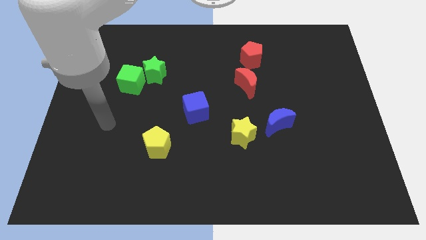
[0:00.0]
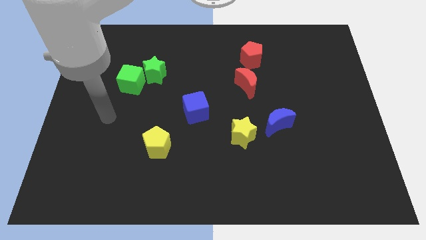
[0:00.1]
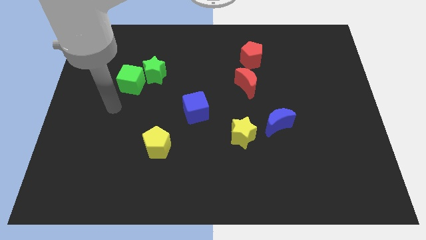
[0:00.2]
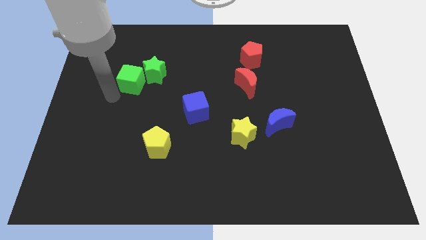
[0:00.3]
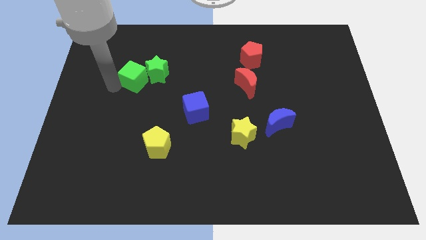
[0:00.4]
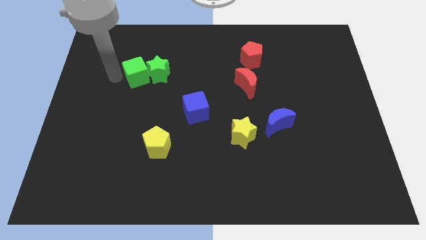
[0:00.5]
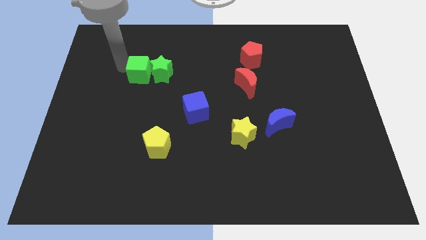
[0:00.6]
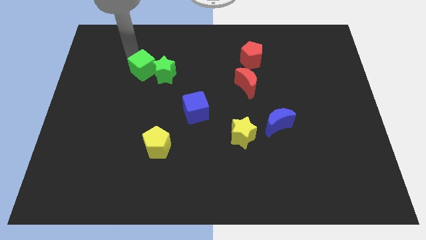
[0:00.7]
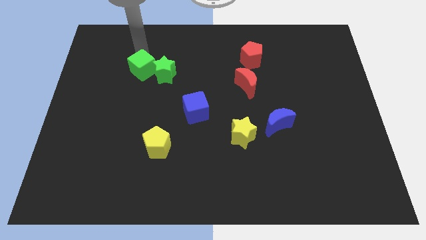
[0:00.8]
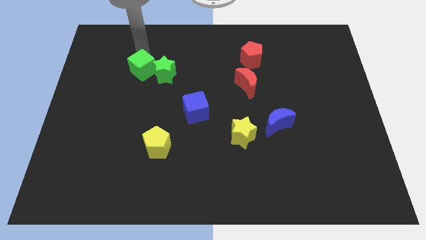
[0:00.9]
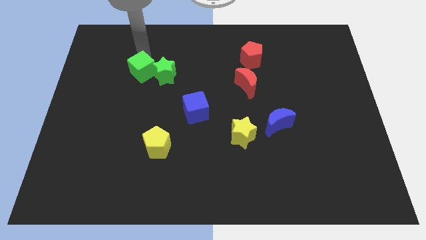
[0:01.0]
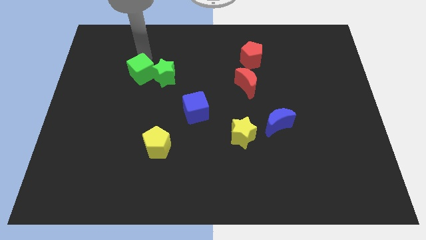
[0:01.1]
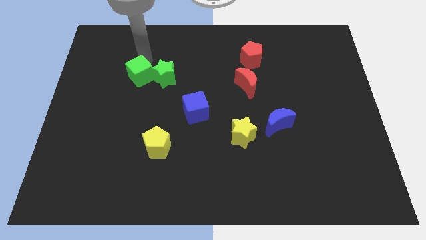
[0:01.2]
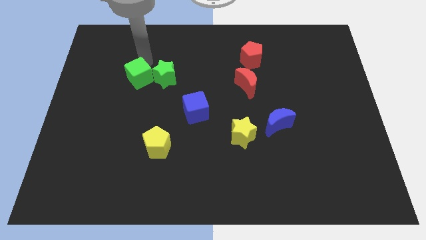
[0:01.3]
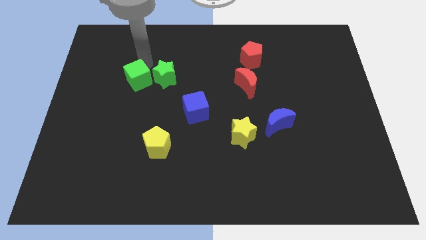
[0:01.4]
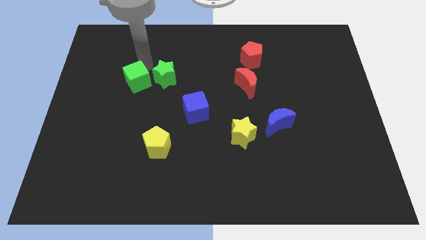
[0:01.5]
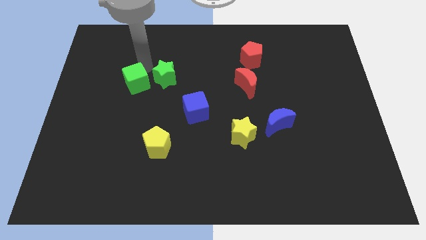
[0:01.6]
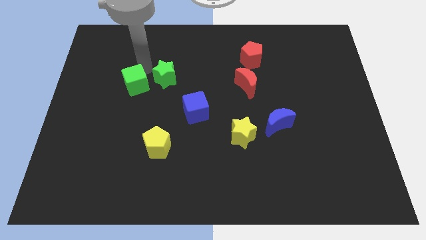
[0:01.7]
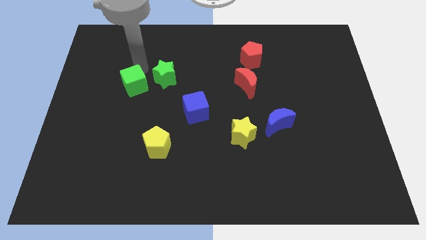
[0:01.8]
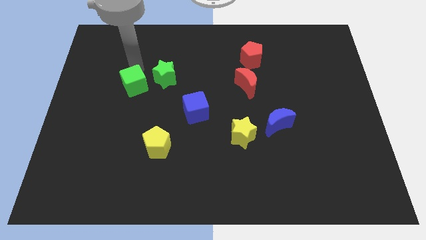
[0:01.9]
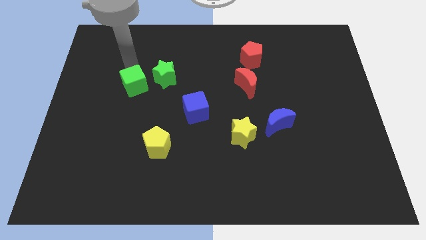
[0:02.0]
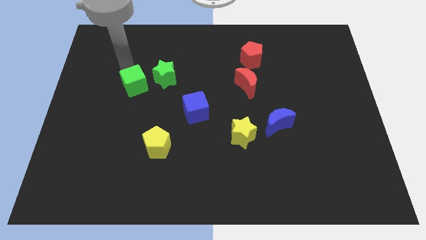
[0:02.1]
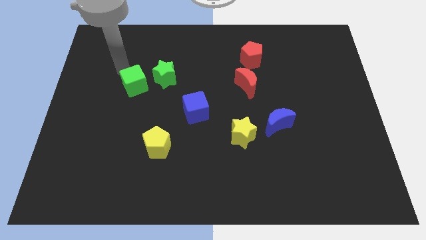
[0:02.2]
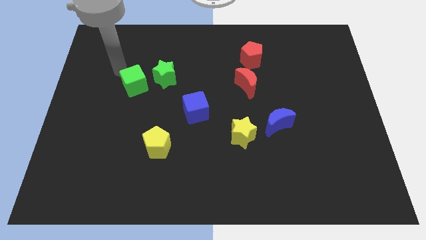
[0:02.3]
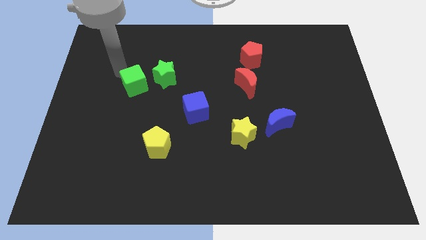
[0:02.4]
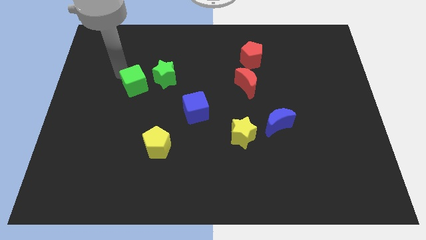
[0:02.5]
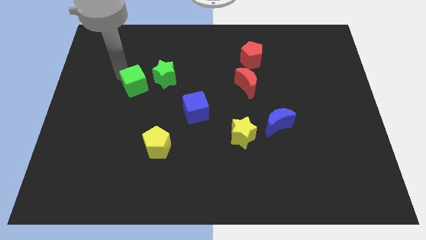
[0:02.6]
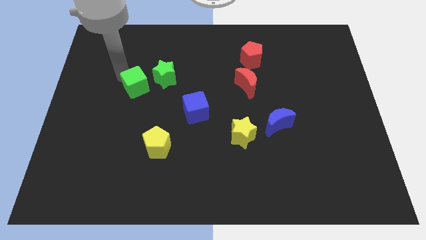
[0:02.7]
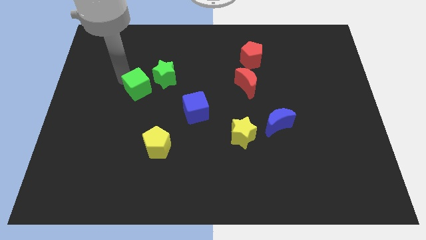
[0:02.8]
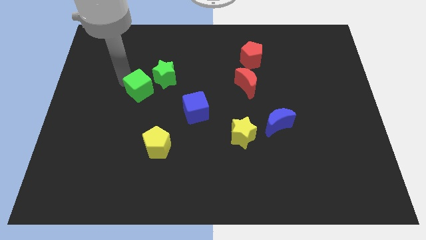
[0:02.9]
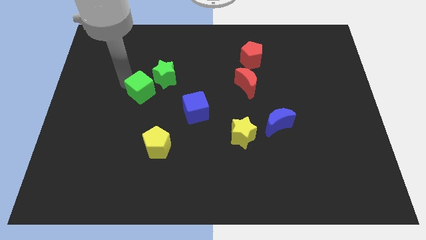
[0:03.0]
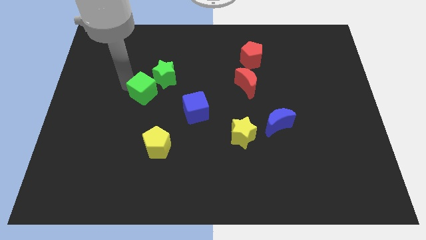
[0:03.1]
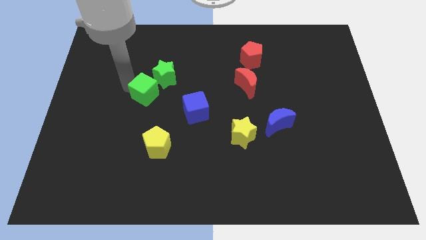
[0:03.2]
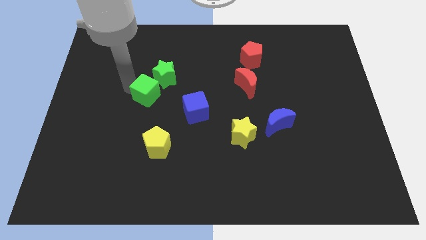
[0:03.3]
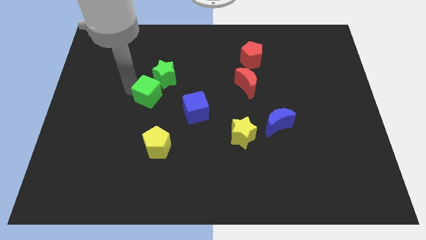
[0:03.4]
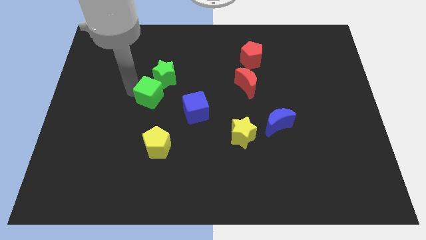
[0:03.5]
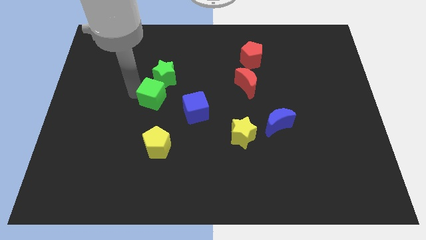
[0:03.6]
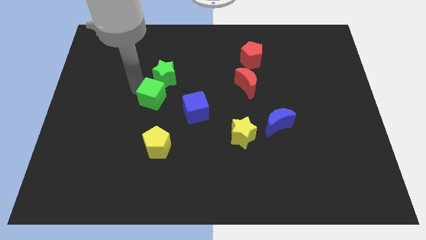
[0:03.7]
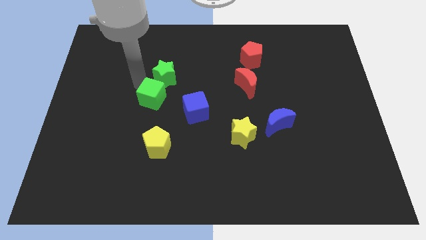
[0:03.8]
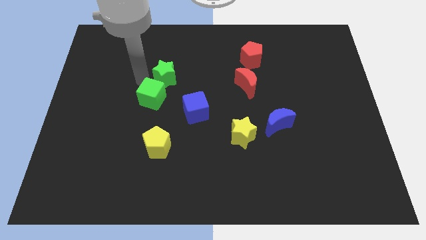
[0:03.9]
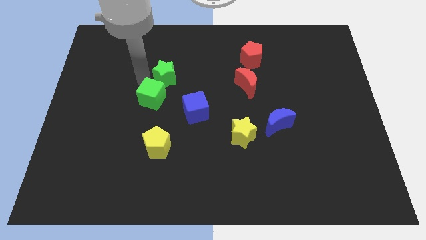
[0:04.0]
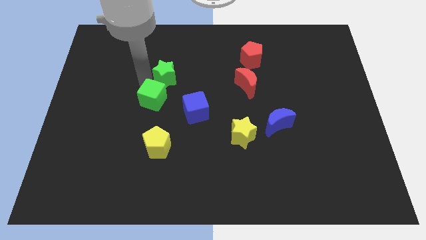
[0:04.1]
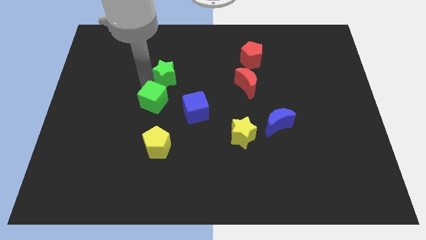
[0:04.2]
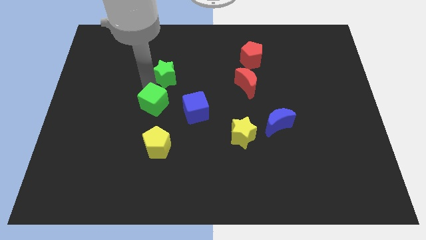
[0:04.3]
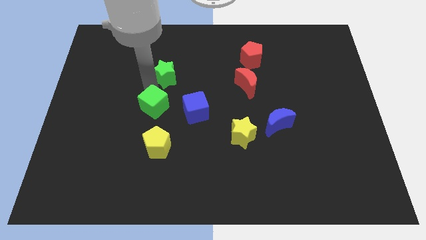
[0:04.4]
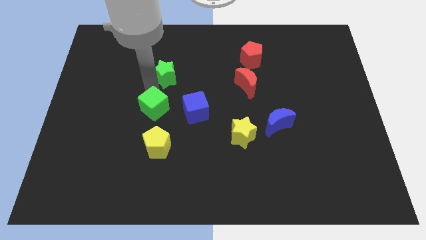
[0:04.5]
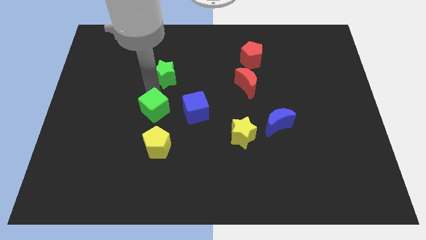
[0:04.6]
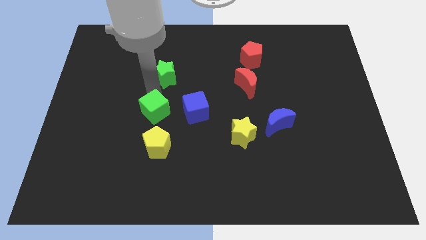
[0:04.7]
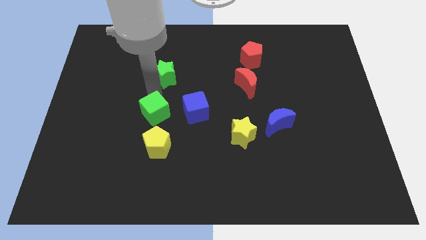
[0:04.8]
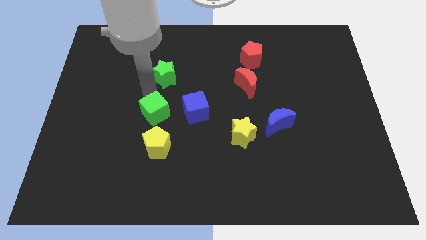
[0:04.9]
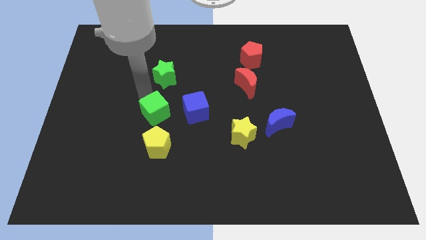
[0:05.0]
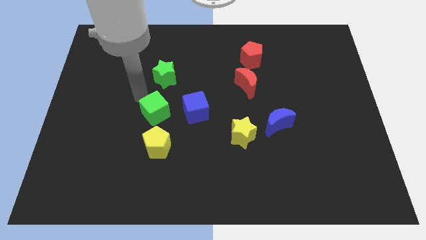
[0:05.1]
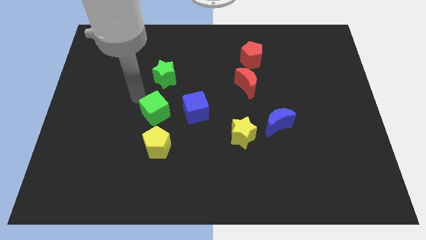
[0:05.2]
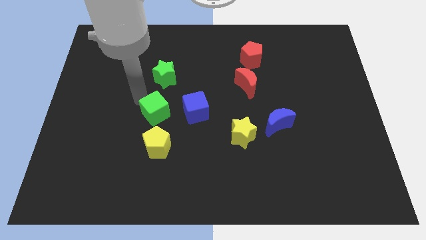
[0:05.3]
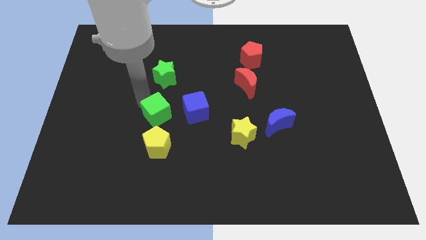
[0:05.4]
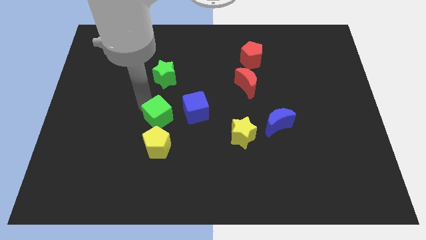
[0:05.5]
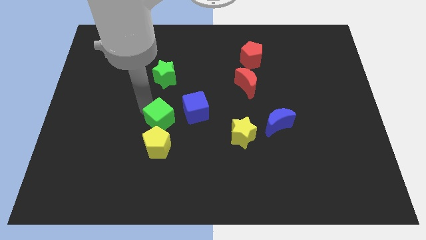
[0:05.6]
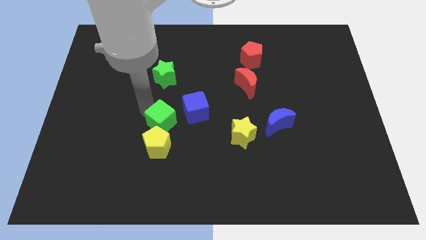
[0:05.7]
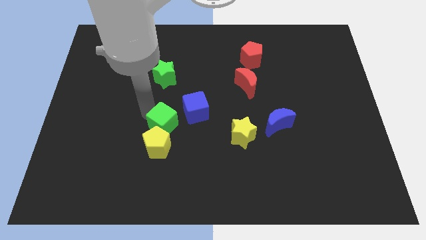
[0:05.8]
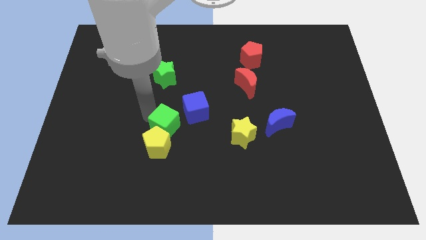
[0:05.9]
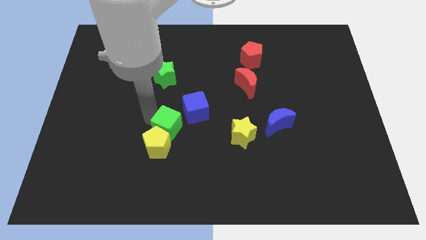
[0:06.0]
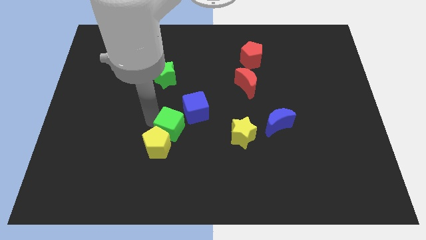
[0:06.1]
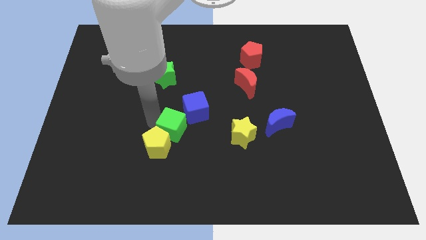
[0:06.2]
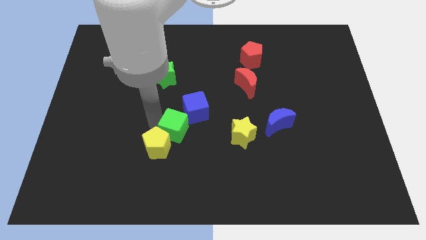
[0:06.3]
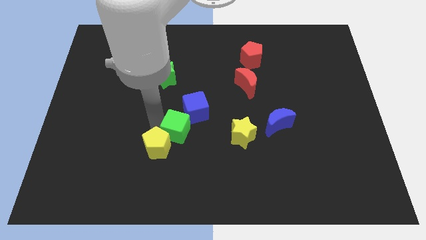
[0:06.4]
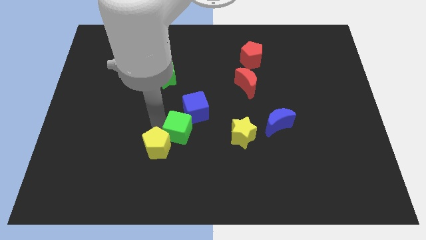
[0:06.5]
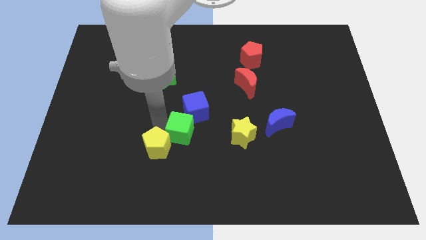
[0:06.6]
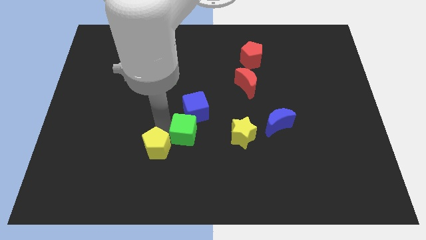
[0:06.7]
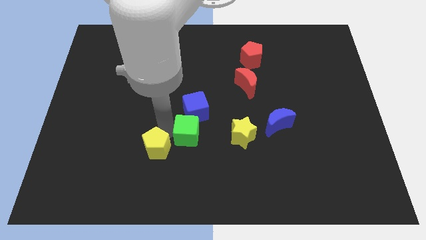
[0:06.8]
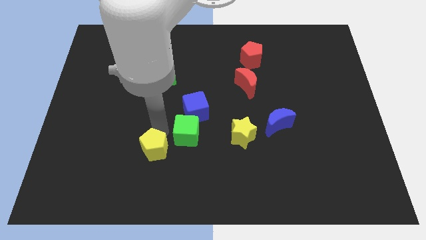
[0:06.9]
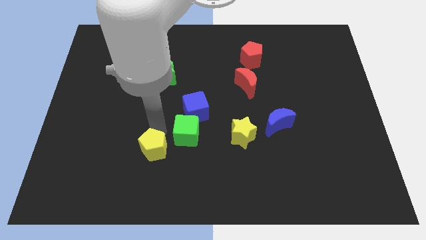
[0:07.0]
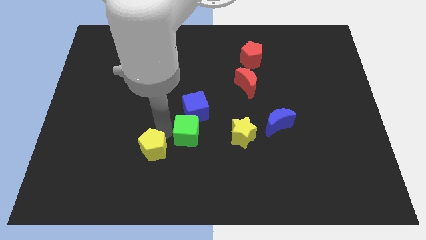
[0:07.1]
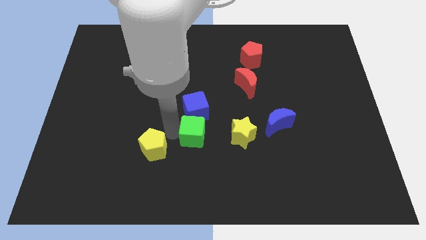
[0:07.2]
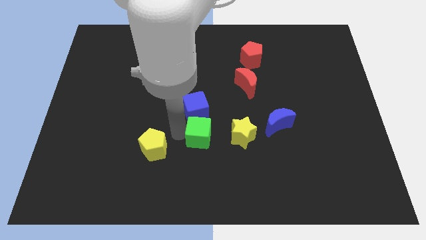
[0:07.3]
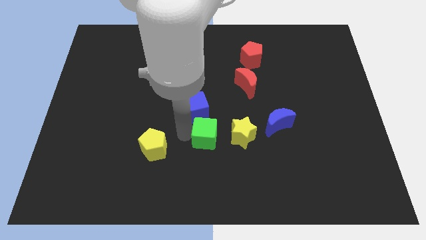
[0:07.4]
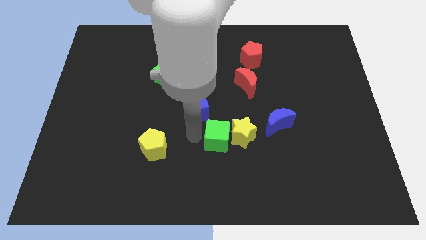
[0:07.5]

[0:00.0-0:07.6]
slide the green cube to the yellow star
